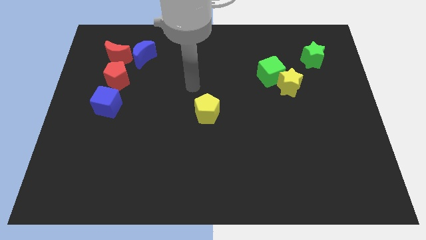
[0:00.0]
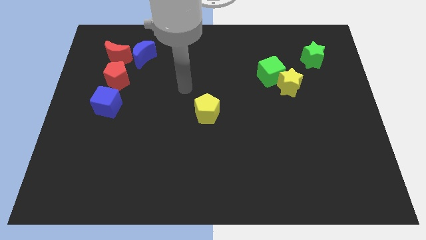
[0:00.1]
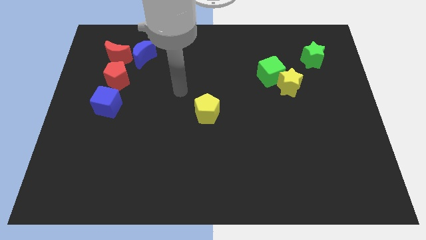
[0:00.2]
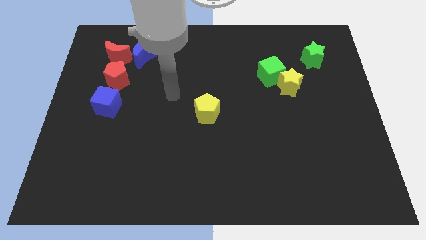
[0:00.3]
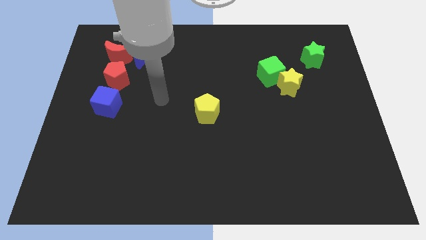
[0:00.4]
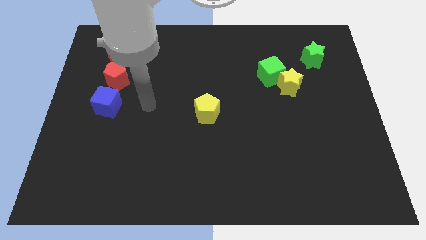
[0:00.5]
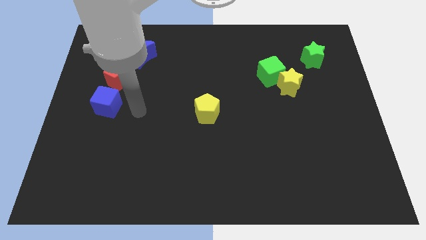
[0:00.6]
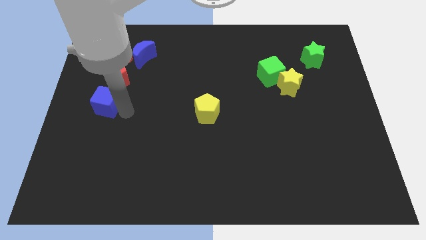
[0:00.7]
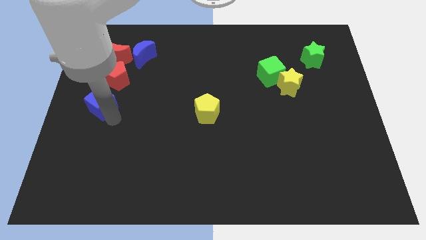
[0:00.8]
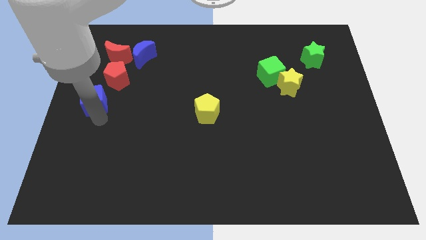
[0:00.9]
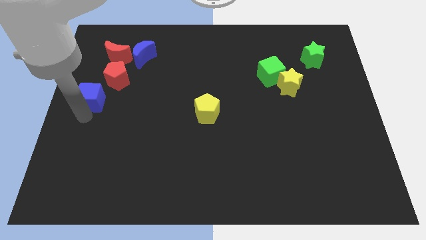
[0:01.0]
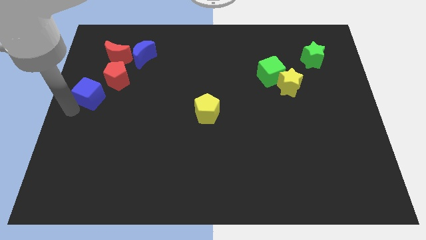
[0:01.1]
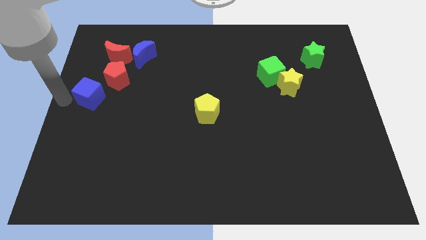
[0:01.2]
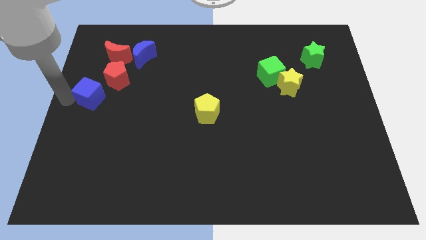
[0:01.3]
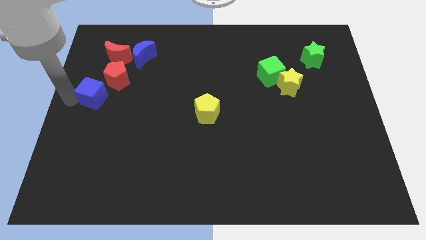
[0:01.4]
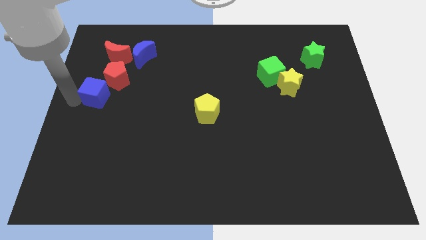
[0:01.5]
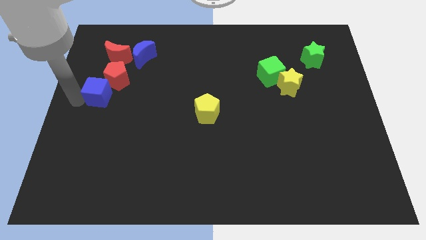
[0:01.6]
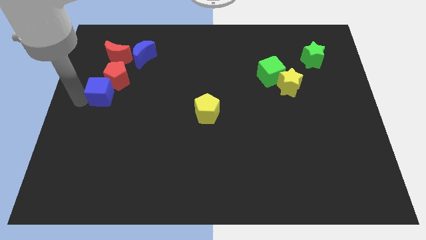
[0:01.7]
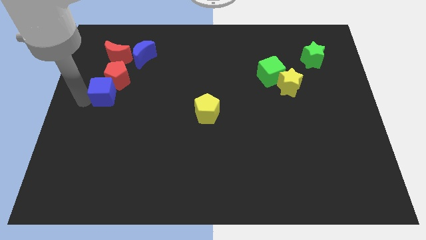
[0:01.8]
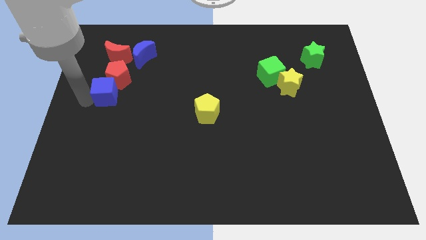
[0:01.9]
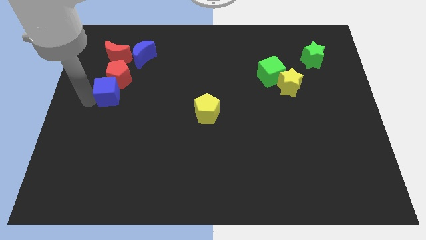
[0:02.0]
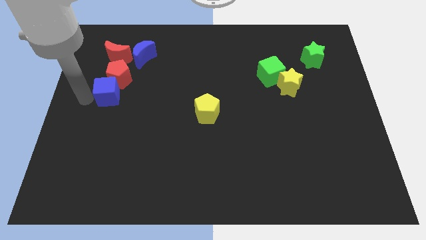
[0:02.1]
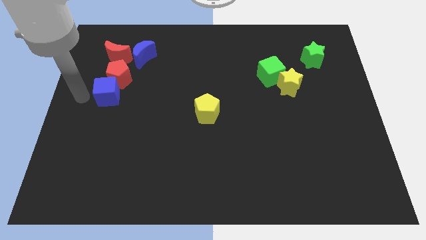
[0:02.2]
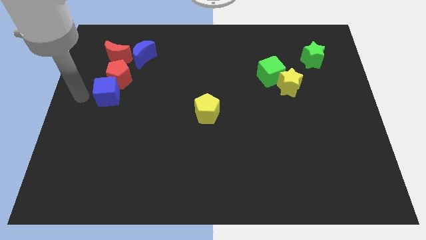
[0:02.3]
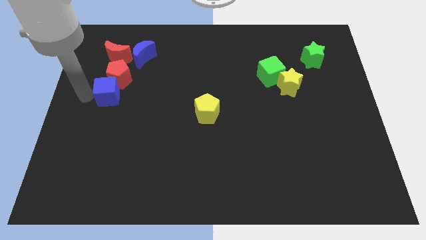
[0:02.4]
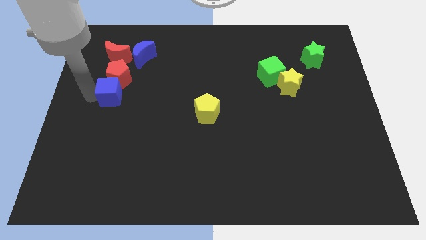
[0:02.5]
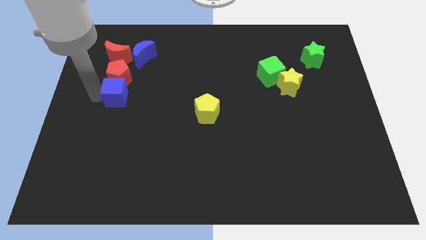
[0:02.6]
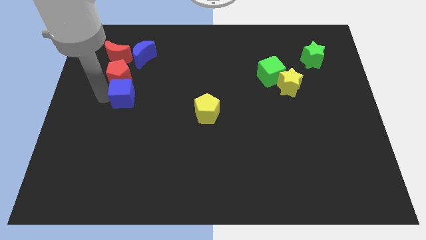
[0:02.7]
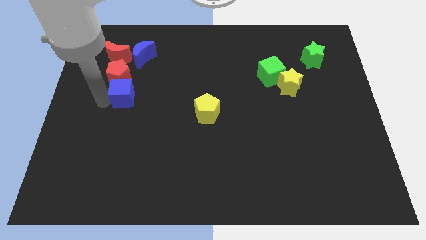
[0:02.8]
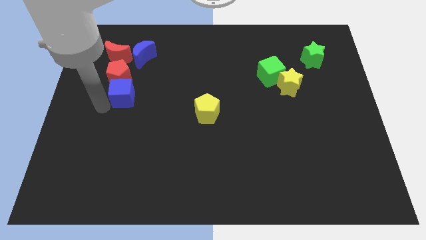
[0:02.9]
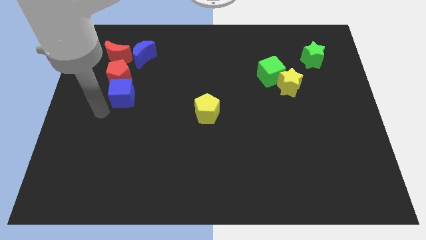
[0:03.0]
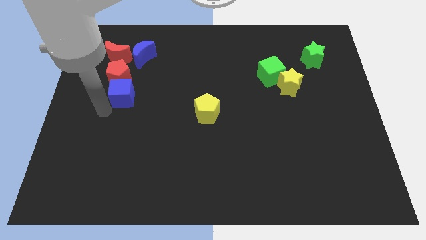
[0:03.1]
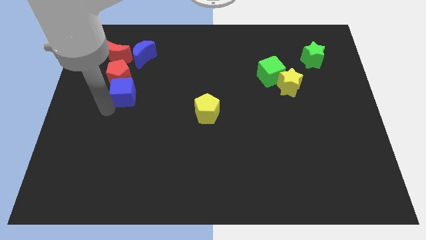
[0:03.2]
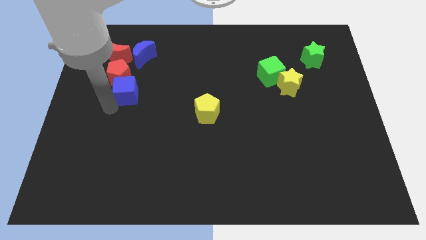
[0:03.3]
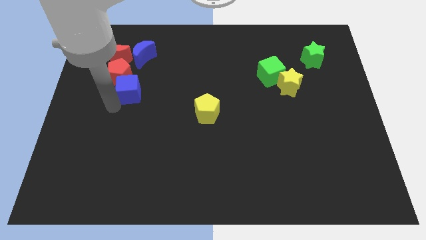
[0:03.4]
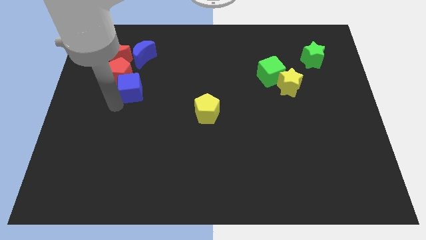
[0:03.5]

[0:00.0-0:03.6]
slide the blue cube up and to the right a bit

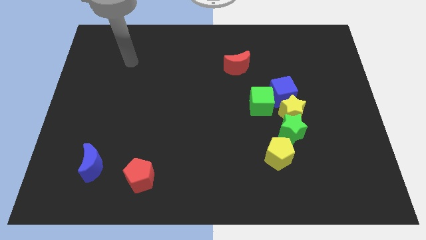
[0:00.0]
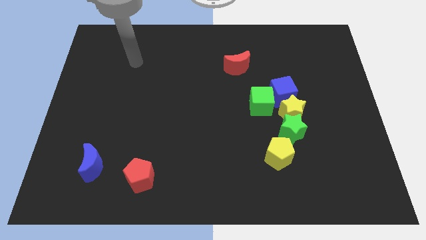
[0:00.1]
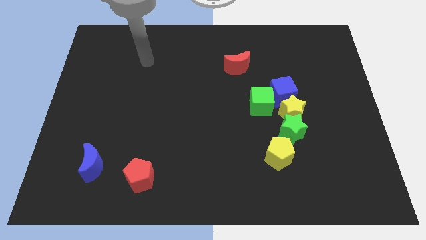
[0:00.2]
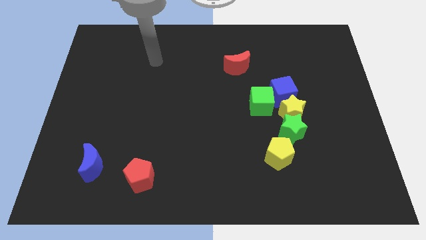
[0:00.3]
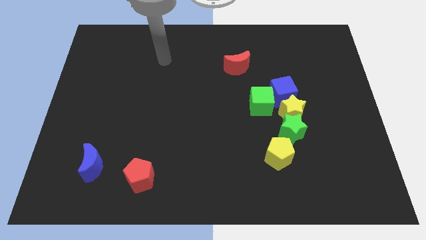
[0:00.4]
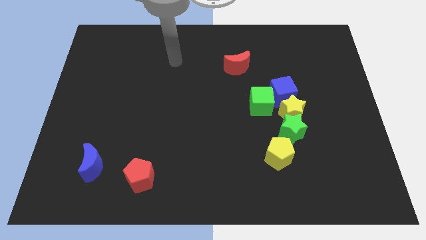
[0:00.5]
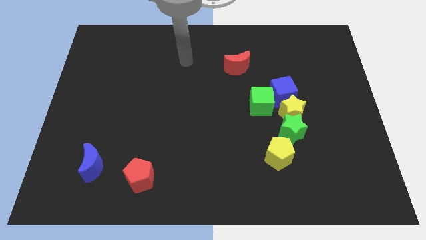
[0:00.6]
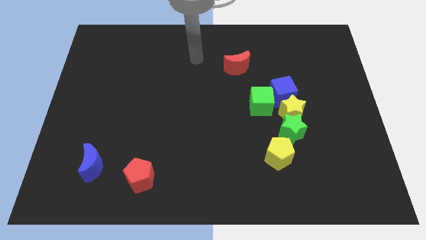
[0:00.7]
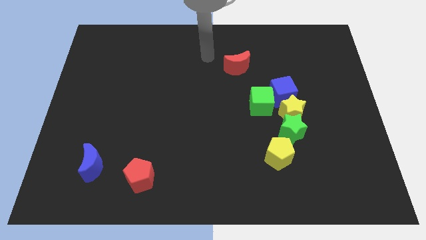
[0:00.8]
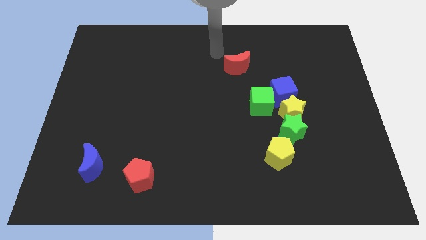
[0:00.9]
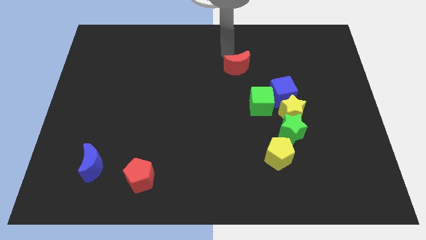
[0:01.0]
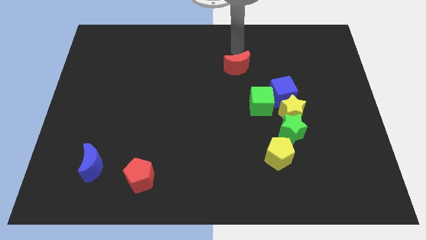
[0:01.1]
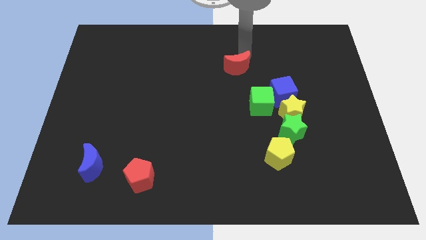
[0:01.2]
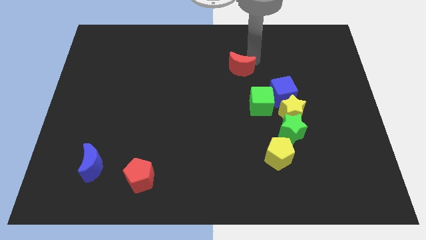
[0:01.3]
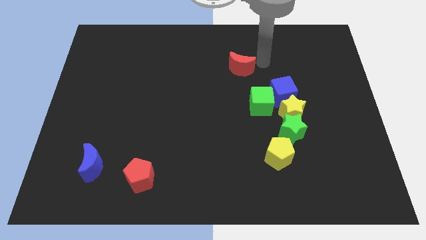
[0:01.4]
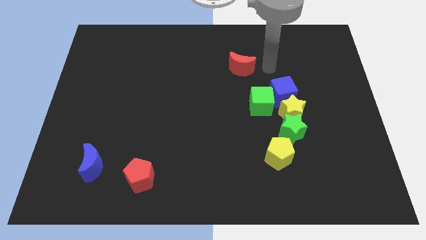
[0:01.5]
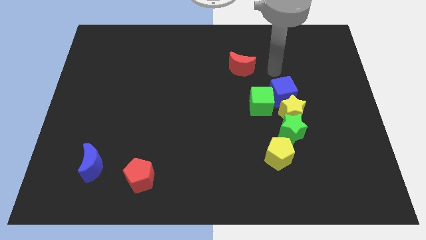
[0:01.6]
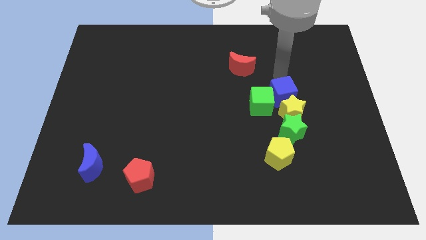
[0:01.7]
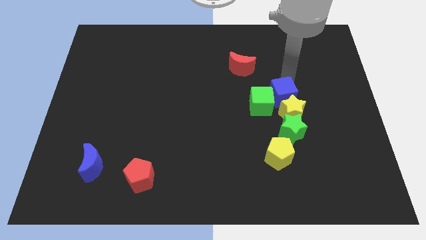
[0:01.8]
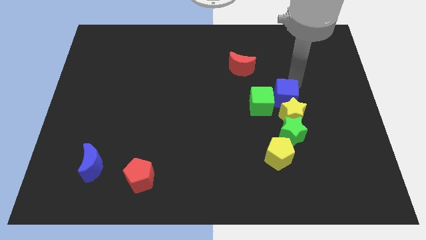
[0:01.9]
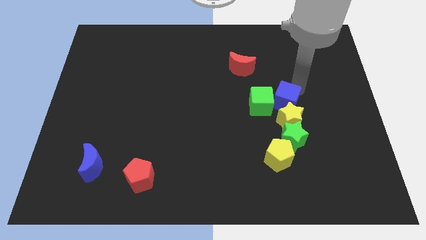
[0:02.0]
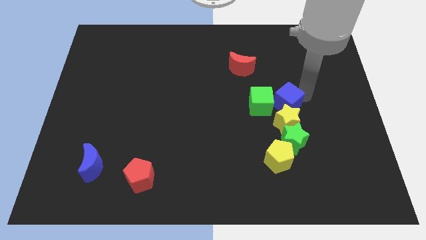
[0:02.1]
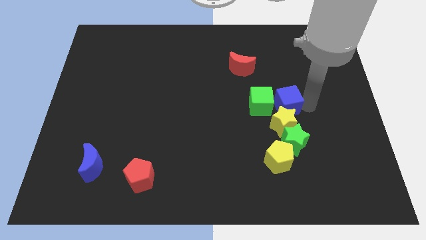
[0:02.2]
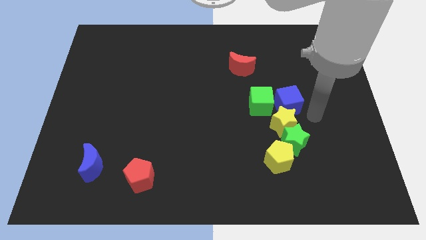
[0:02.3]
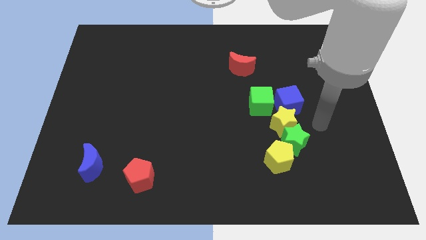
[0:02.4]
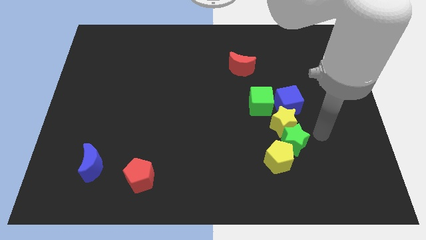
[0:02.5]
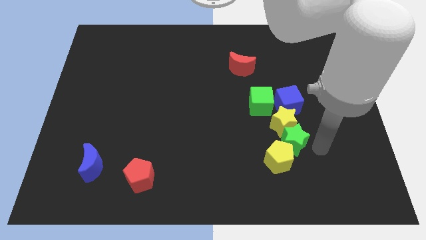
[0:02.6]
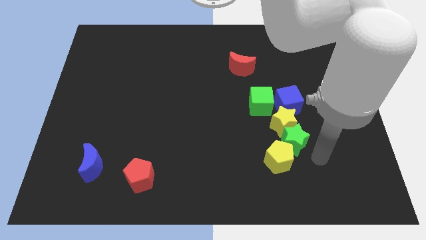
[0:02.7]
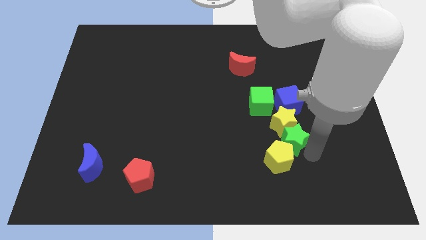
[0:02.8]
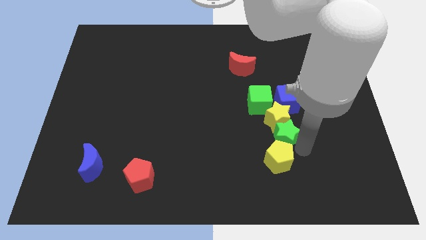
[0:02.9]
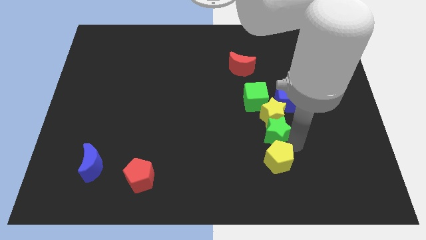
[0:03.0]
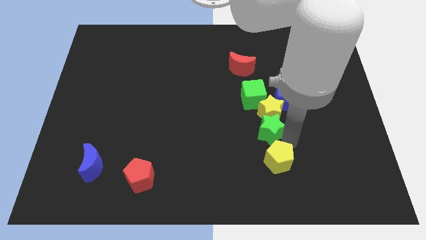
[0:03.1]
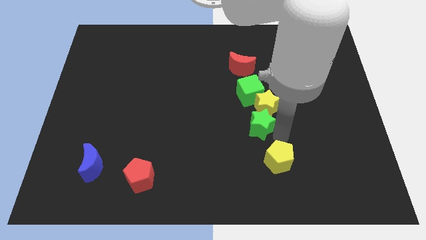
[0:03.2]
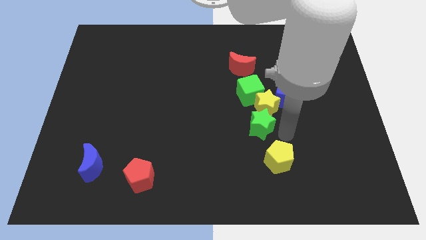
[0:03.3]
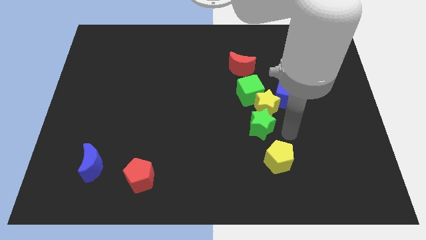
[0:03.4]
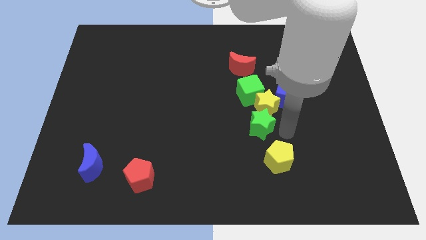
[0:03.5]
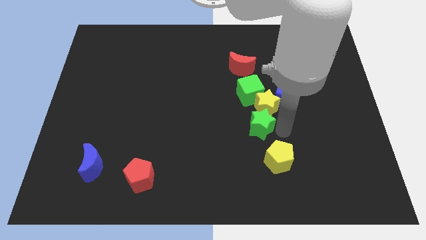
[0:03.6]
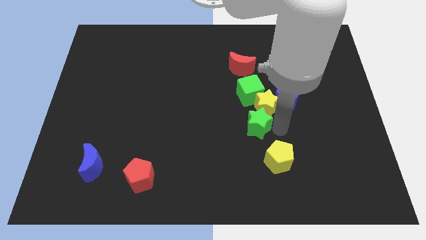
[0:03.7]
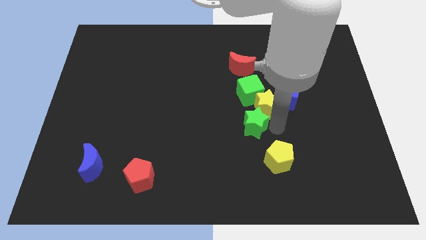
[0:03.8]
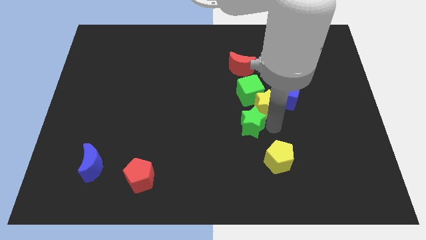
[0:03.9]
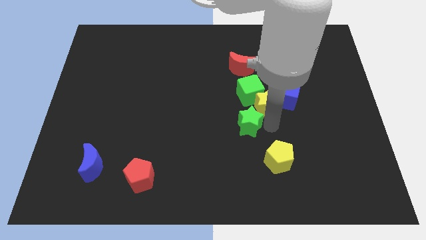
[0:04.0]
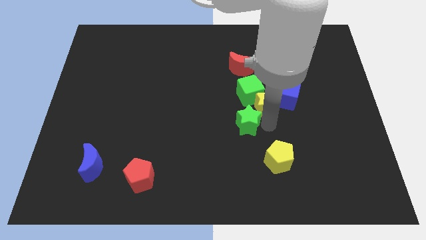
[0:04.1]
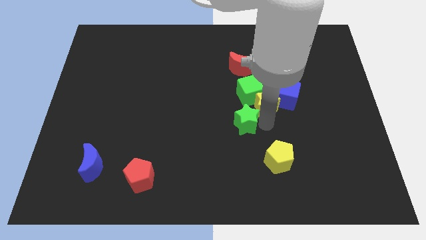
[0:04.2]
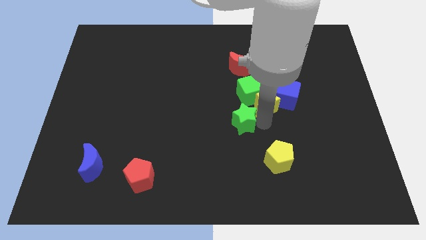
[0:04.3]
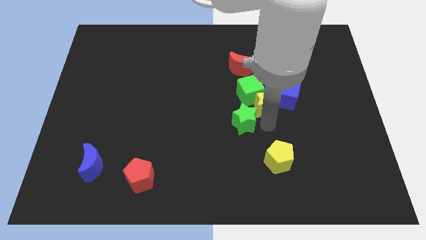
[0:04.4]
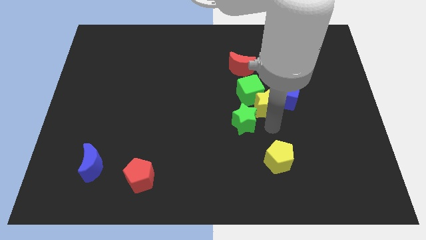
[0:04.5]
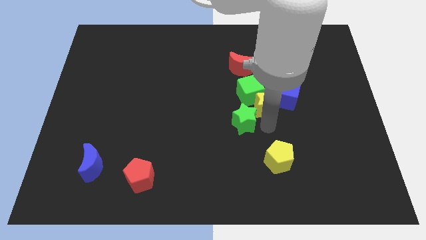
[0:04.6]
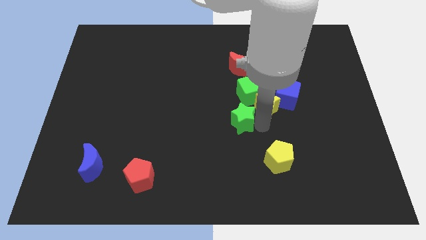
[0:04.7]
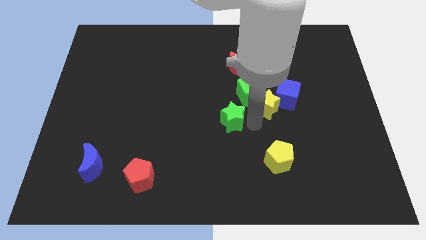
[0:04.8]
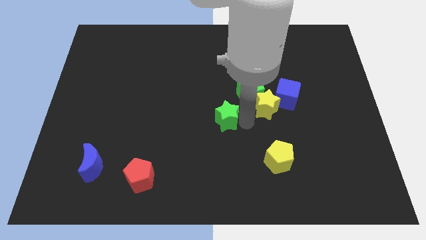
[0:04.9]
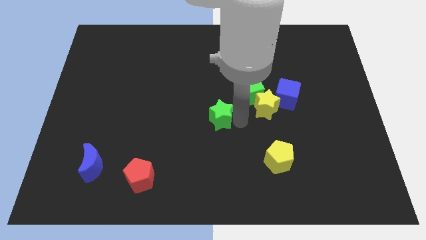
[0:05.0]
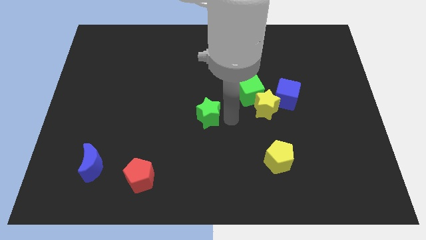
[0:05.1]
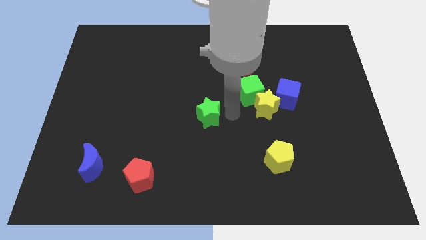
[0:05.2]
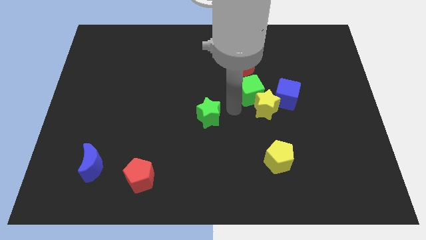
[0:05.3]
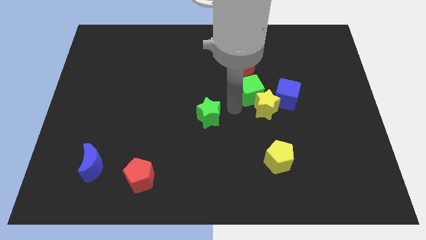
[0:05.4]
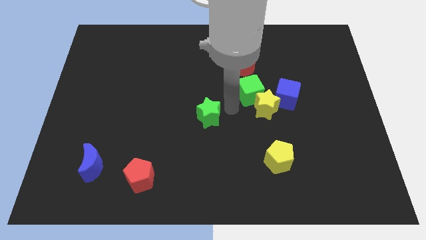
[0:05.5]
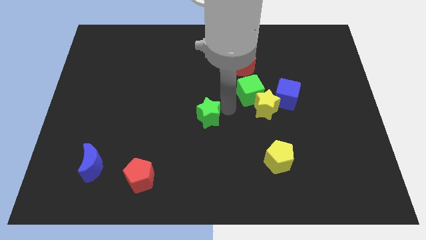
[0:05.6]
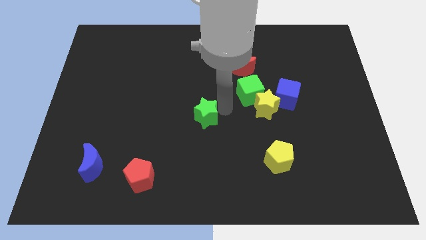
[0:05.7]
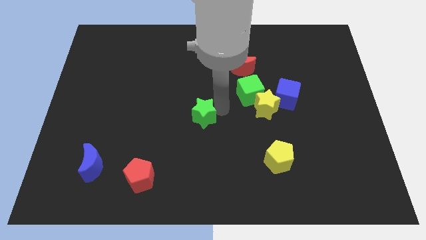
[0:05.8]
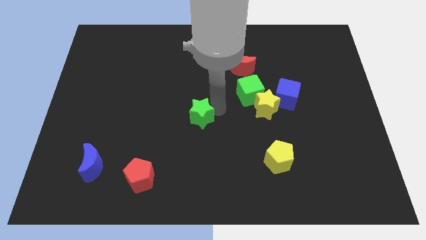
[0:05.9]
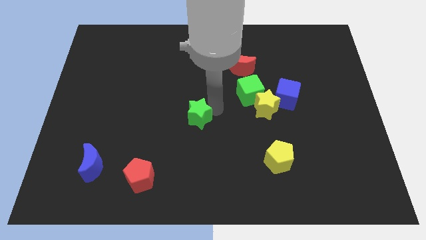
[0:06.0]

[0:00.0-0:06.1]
push the green star left
